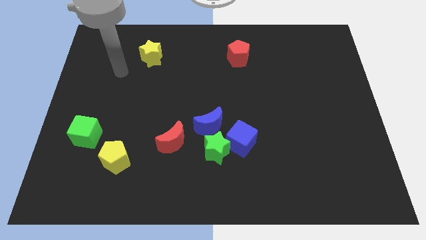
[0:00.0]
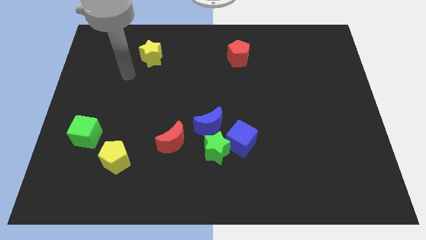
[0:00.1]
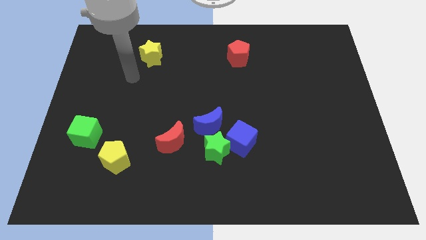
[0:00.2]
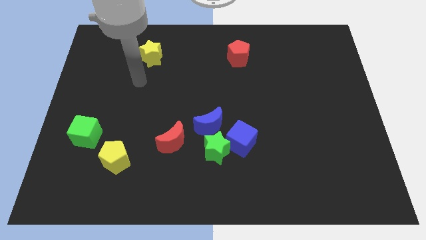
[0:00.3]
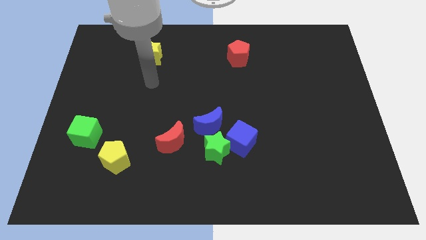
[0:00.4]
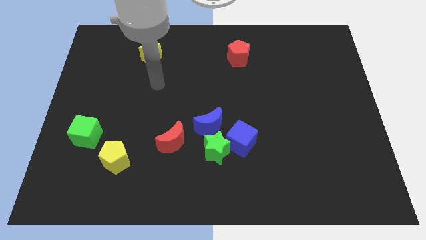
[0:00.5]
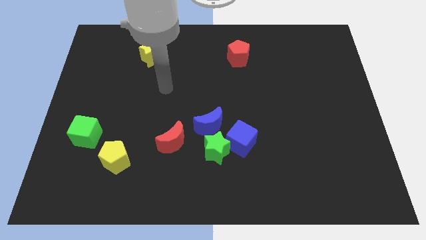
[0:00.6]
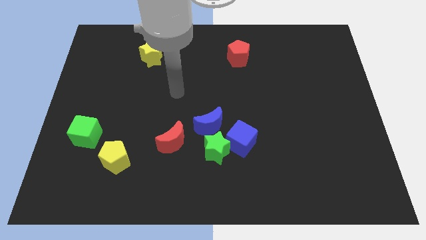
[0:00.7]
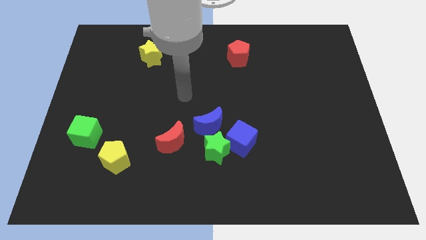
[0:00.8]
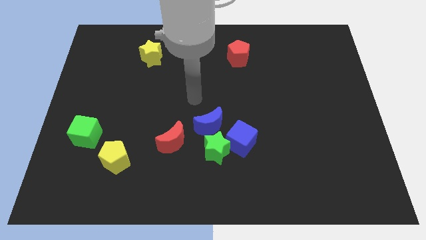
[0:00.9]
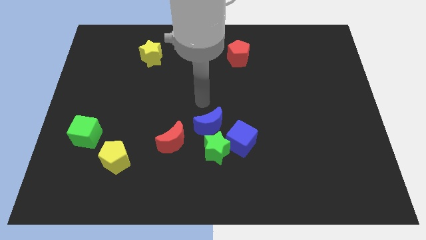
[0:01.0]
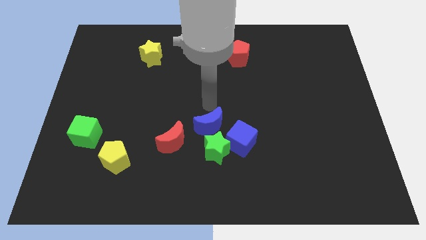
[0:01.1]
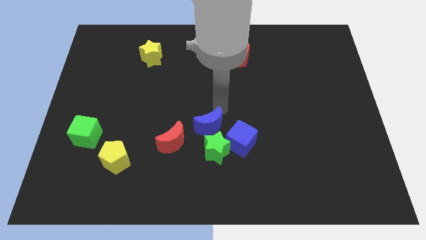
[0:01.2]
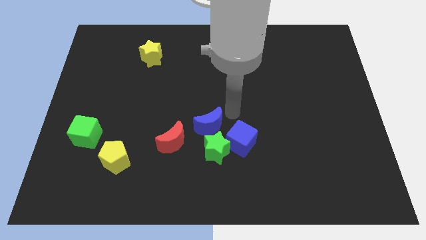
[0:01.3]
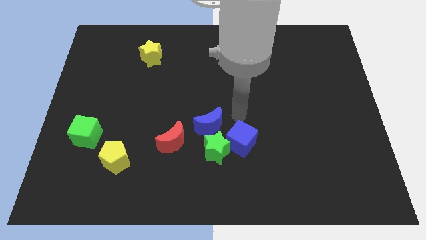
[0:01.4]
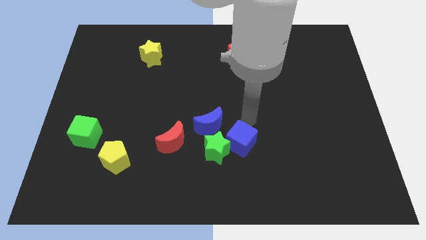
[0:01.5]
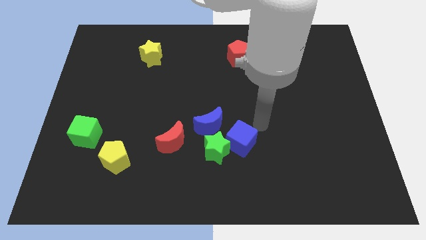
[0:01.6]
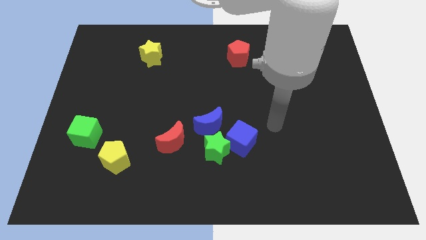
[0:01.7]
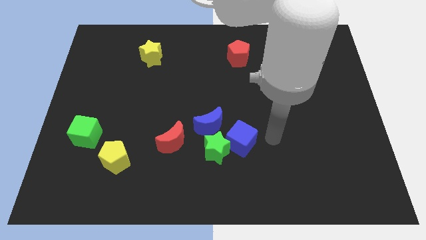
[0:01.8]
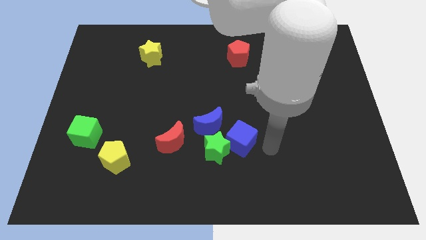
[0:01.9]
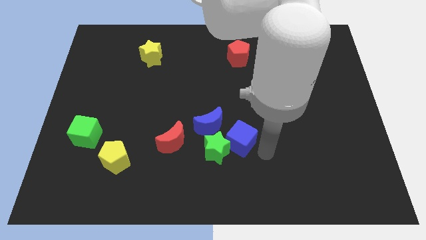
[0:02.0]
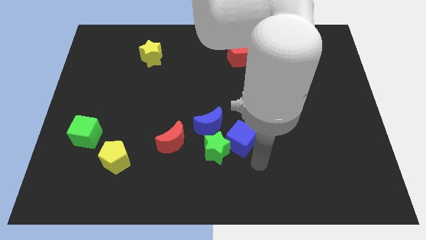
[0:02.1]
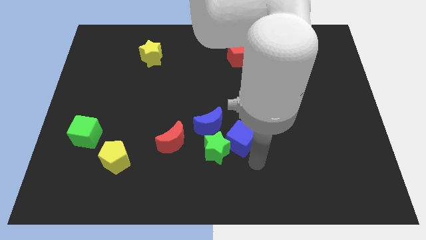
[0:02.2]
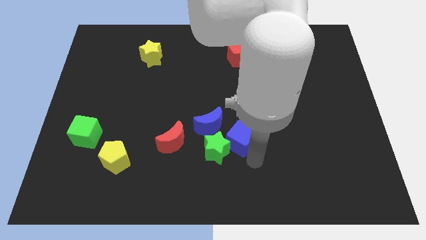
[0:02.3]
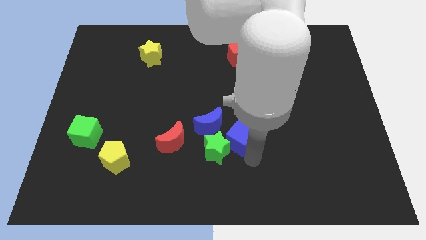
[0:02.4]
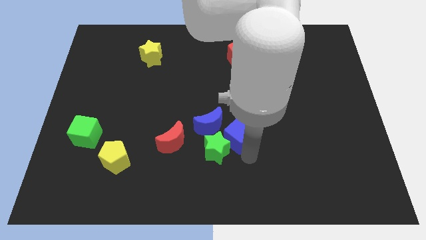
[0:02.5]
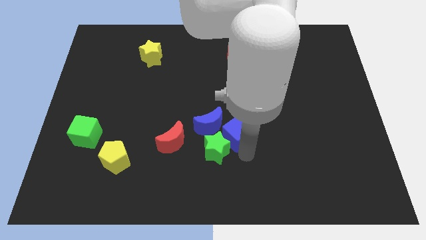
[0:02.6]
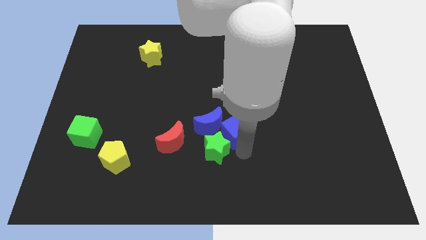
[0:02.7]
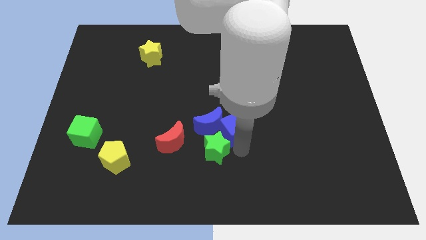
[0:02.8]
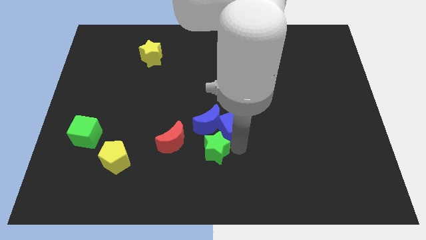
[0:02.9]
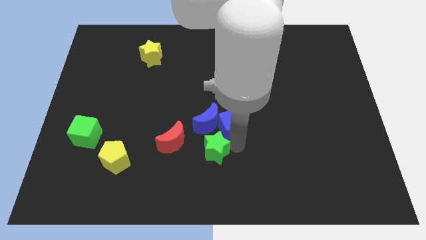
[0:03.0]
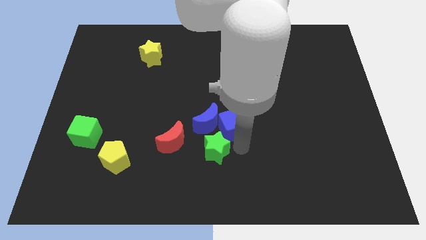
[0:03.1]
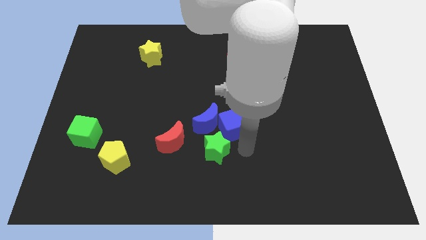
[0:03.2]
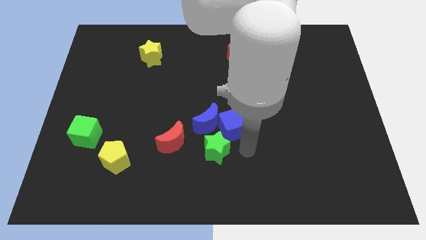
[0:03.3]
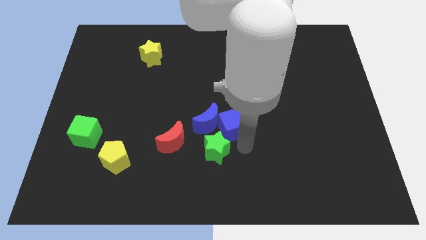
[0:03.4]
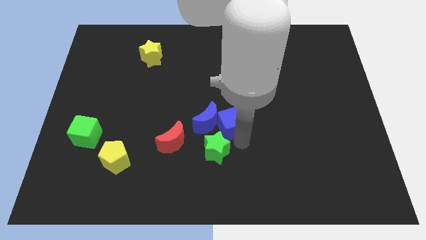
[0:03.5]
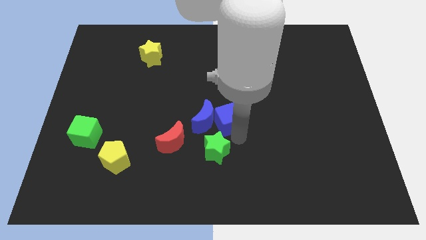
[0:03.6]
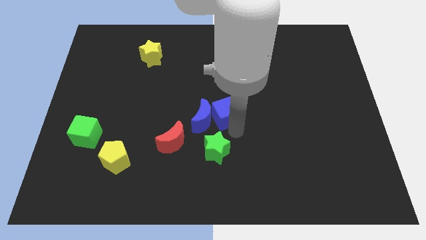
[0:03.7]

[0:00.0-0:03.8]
move the blue cube diagonally up and to the left somewhat

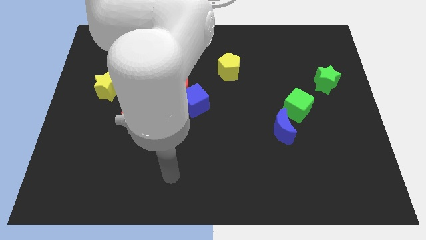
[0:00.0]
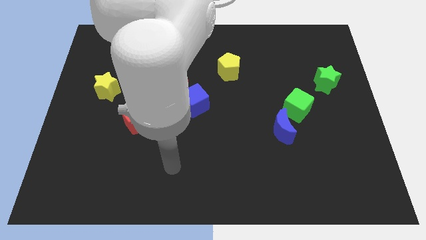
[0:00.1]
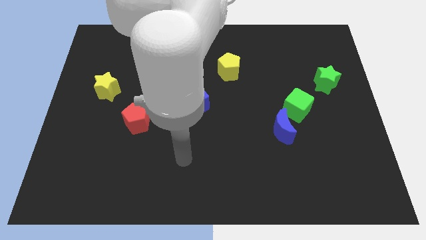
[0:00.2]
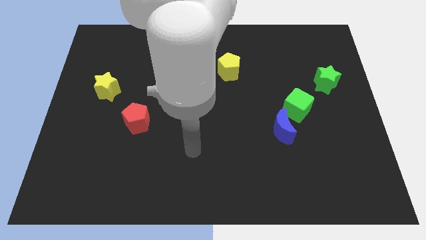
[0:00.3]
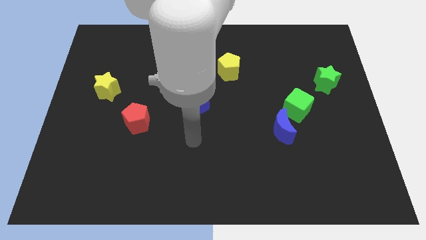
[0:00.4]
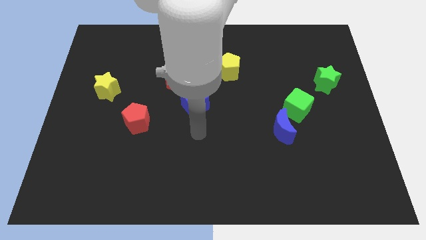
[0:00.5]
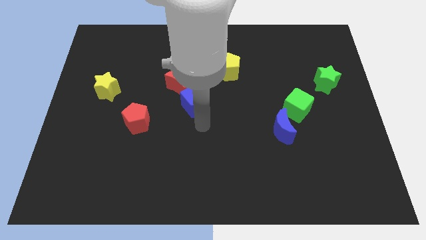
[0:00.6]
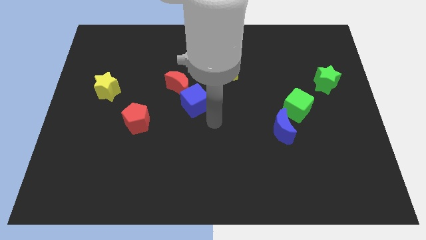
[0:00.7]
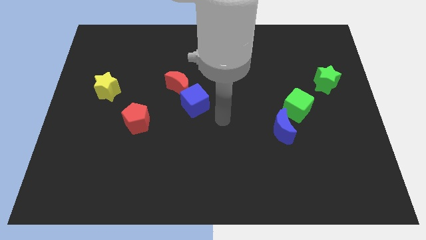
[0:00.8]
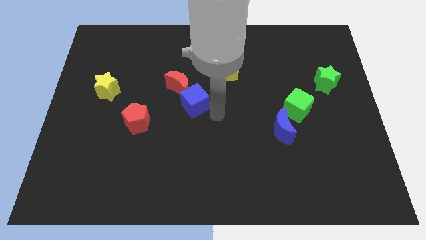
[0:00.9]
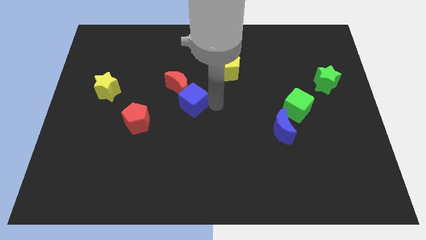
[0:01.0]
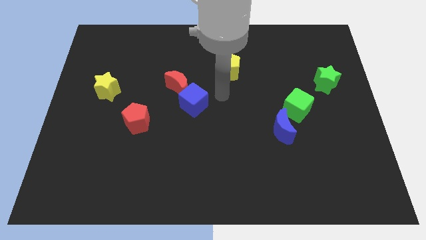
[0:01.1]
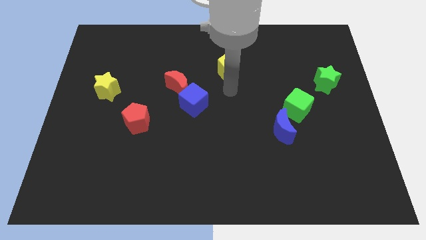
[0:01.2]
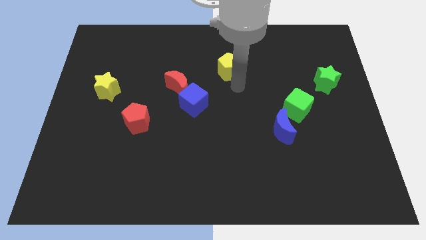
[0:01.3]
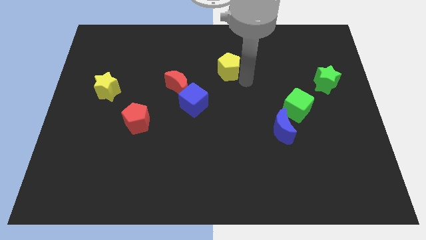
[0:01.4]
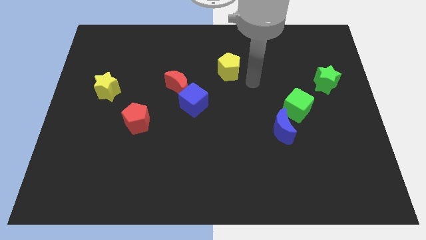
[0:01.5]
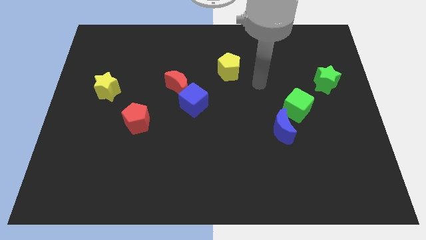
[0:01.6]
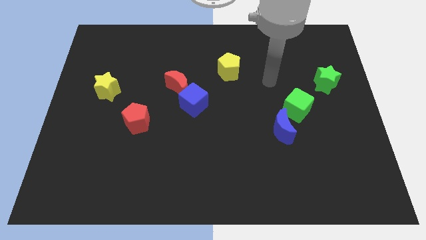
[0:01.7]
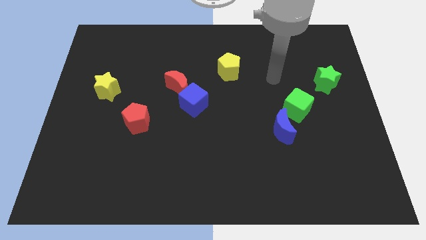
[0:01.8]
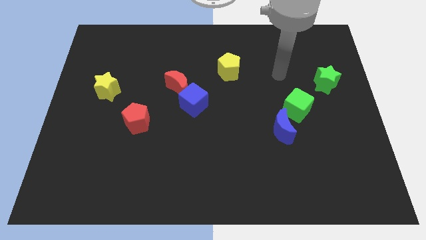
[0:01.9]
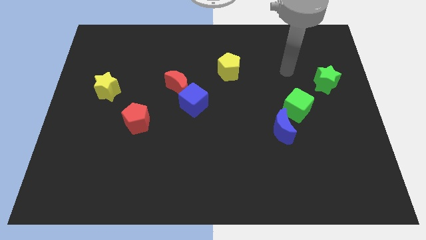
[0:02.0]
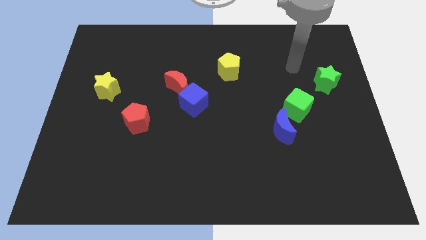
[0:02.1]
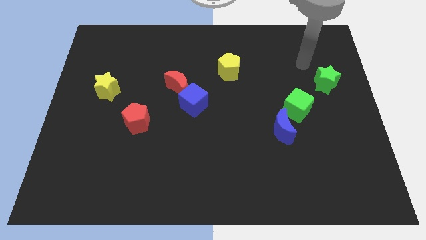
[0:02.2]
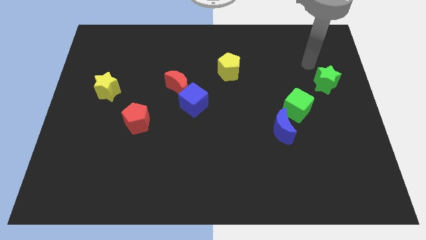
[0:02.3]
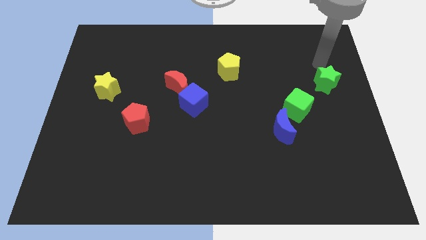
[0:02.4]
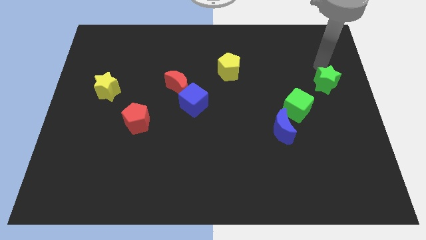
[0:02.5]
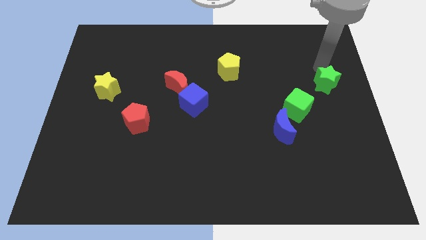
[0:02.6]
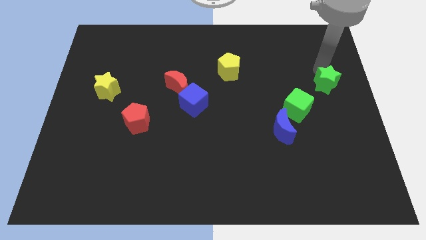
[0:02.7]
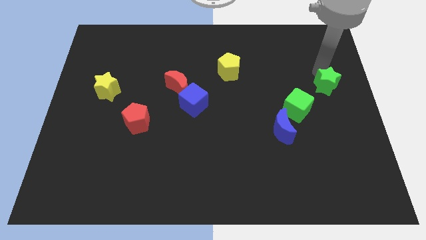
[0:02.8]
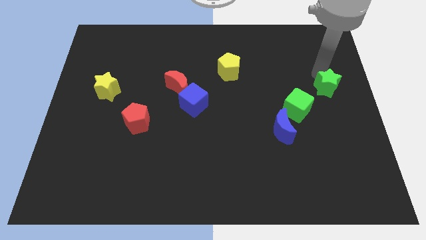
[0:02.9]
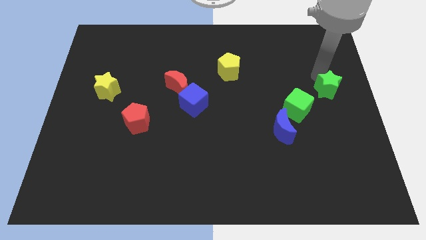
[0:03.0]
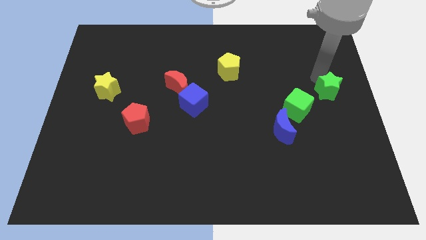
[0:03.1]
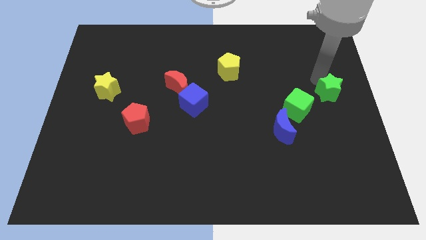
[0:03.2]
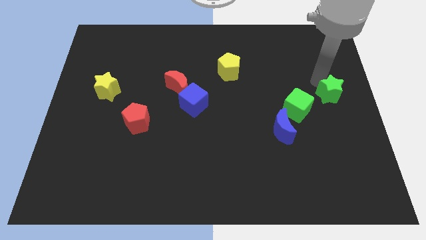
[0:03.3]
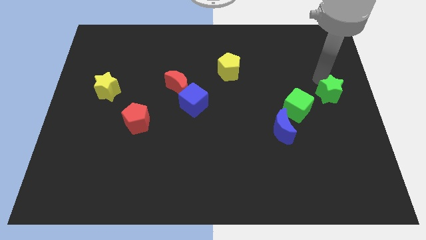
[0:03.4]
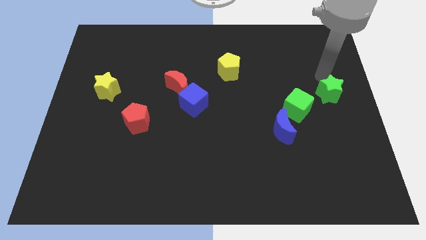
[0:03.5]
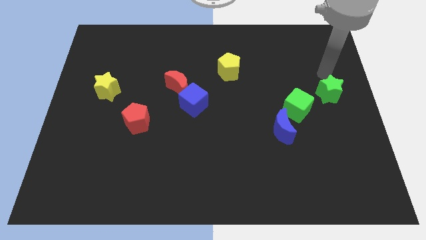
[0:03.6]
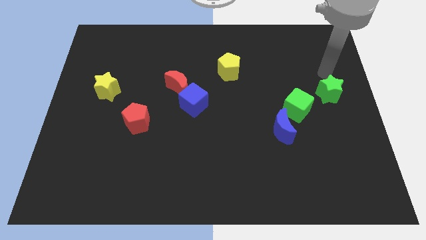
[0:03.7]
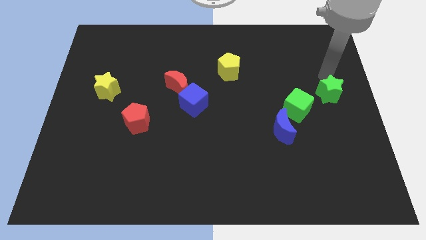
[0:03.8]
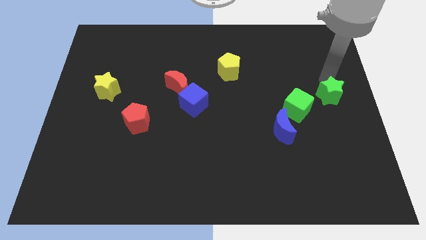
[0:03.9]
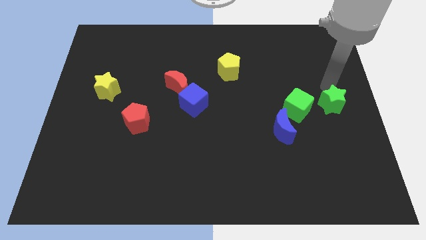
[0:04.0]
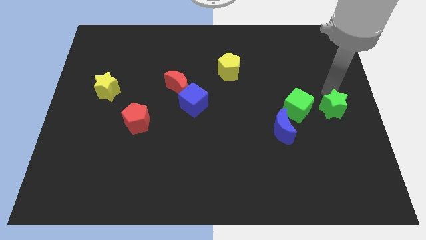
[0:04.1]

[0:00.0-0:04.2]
slide the green star downwards a bit
